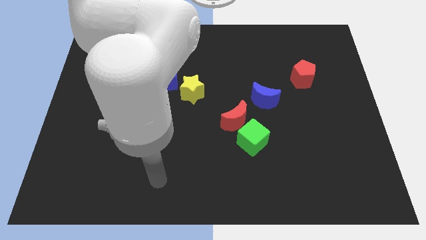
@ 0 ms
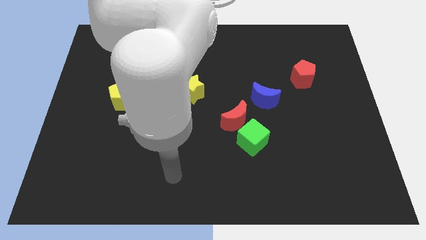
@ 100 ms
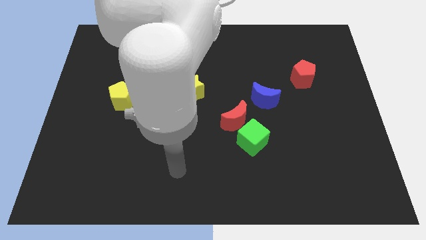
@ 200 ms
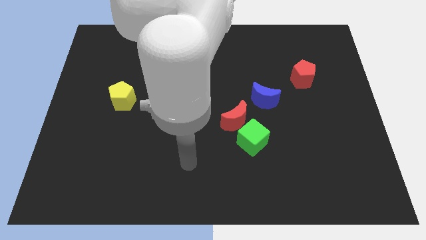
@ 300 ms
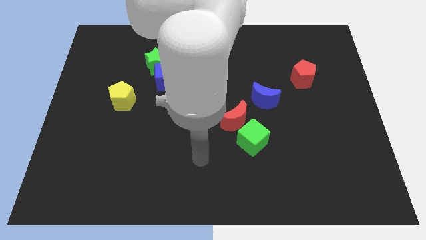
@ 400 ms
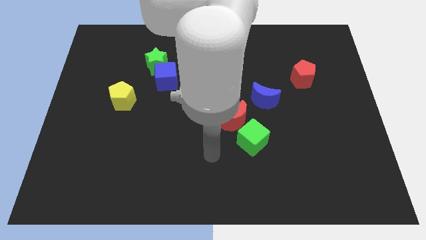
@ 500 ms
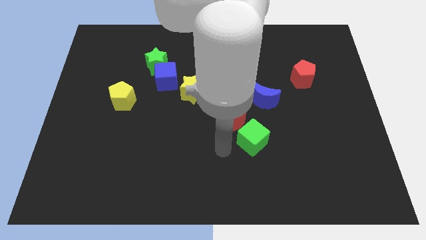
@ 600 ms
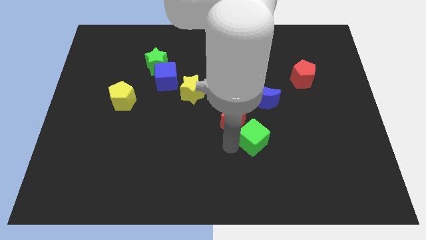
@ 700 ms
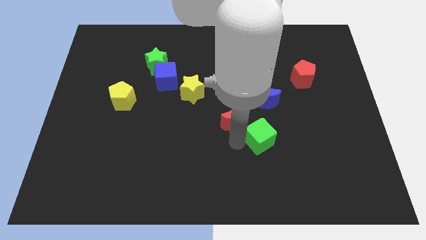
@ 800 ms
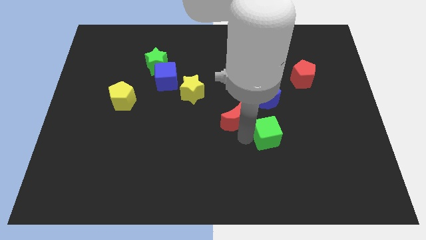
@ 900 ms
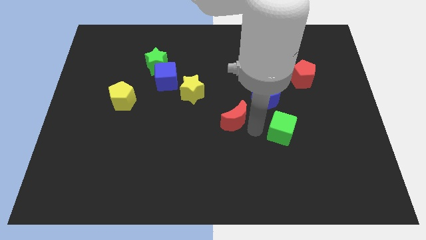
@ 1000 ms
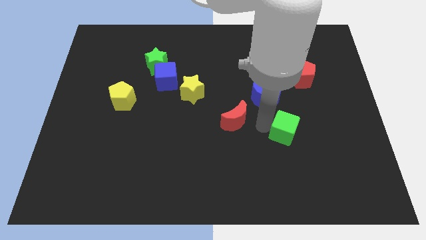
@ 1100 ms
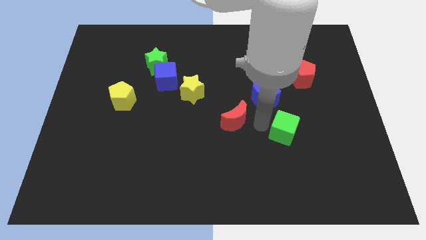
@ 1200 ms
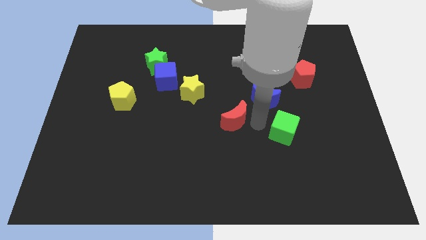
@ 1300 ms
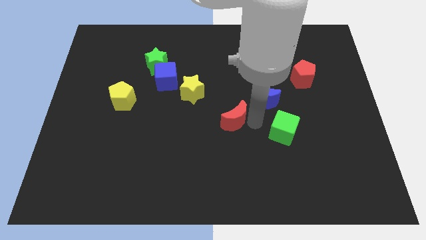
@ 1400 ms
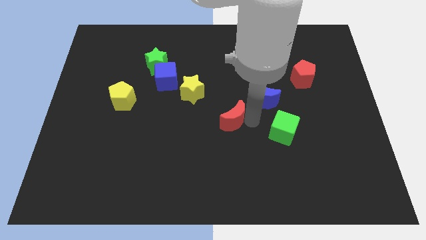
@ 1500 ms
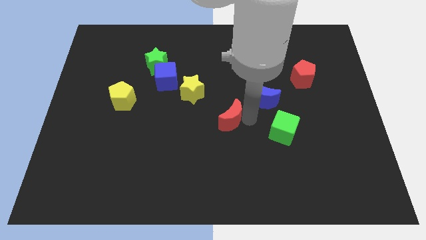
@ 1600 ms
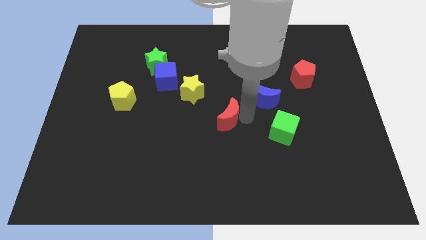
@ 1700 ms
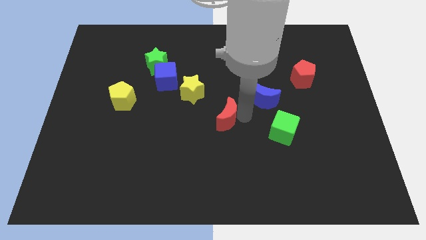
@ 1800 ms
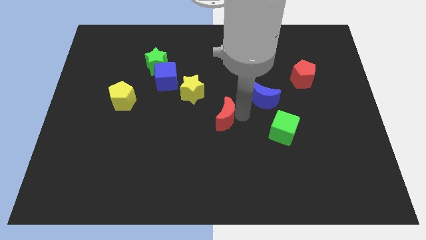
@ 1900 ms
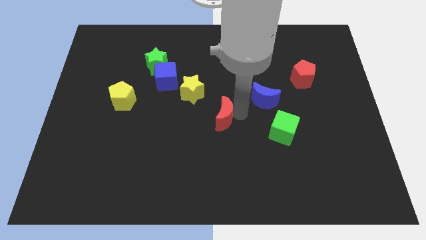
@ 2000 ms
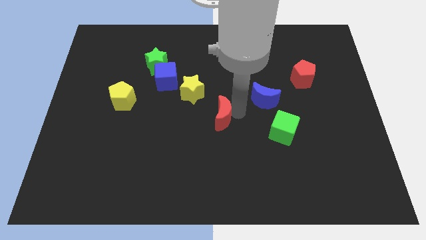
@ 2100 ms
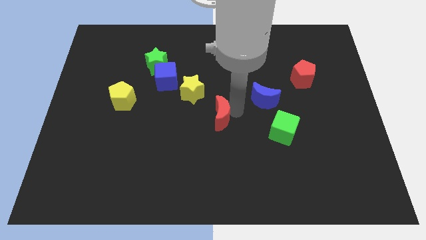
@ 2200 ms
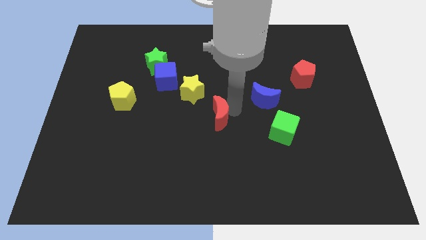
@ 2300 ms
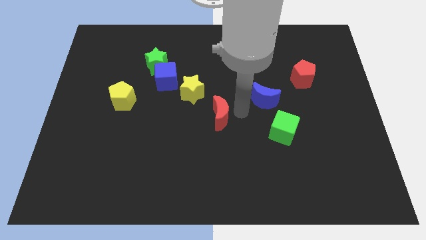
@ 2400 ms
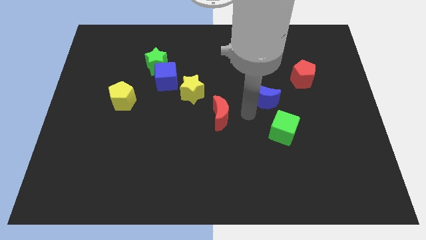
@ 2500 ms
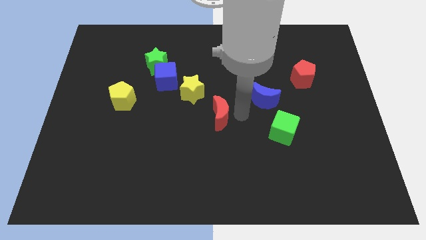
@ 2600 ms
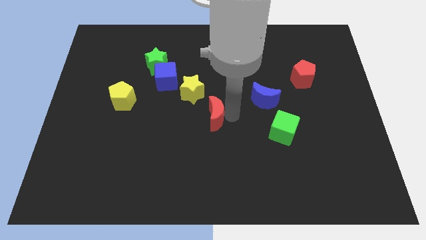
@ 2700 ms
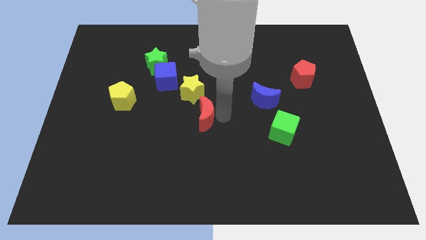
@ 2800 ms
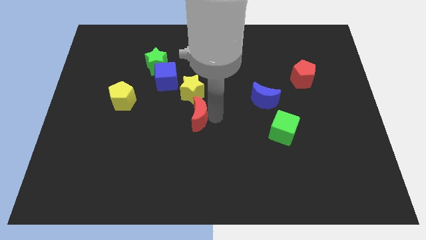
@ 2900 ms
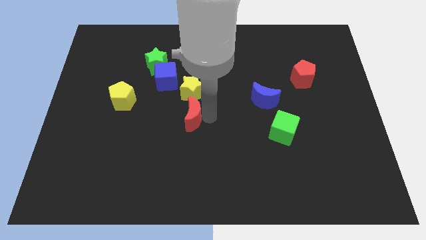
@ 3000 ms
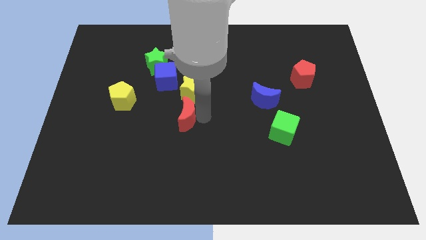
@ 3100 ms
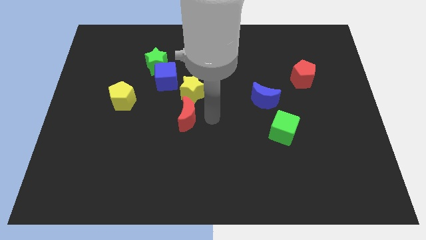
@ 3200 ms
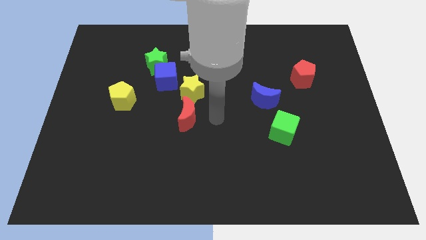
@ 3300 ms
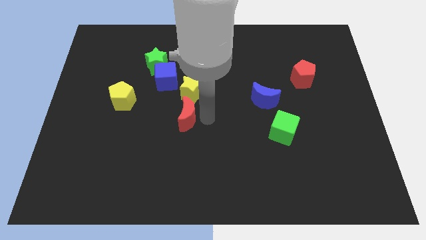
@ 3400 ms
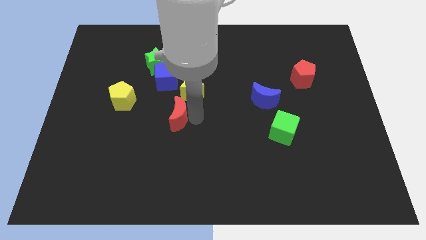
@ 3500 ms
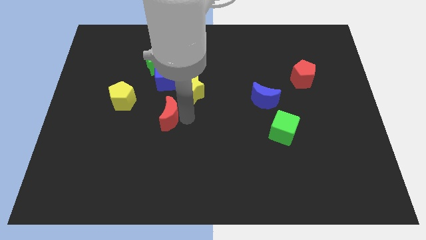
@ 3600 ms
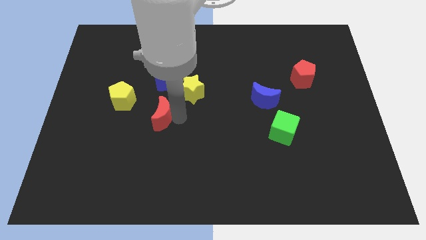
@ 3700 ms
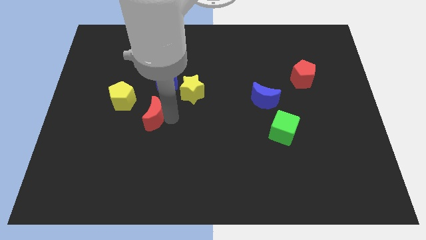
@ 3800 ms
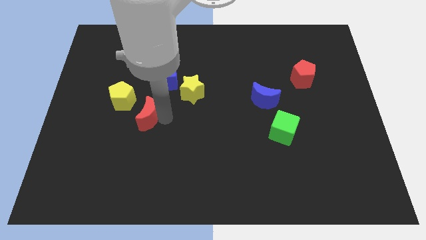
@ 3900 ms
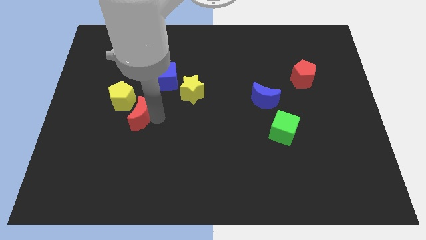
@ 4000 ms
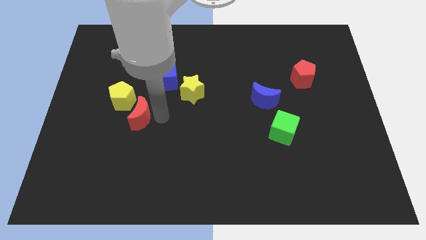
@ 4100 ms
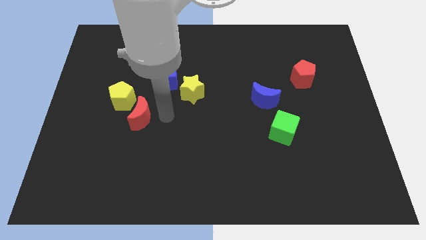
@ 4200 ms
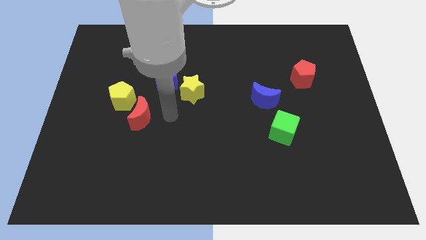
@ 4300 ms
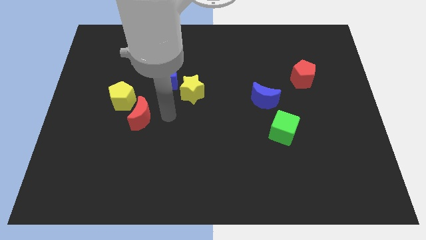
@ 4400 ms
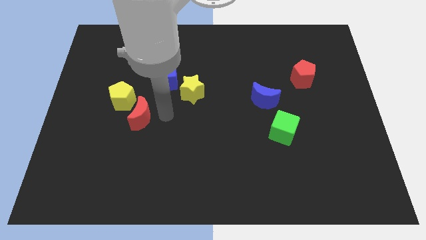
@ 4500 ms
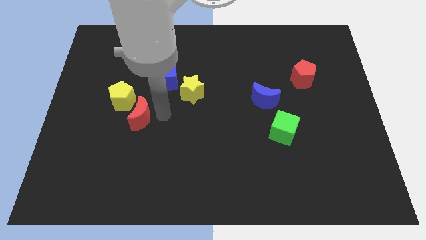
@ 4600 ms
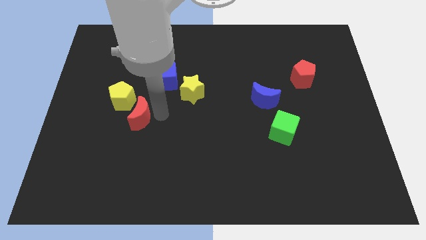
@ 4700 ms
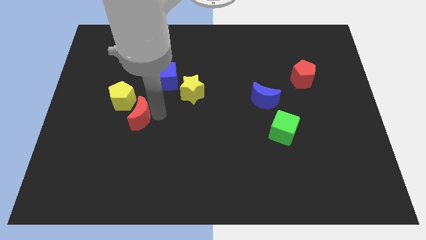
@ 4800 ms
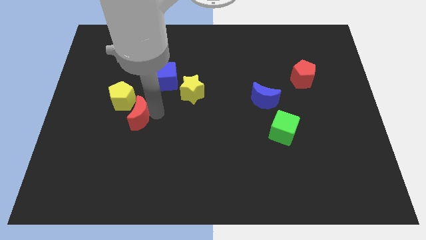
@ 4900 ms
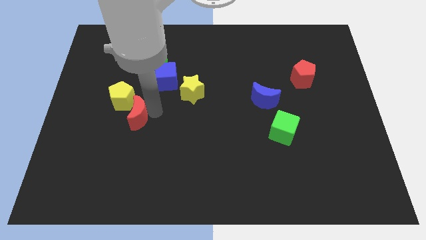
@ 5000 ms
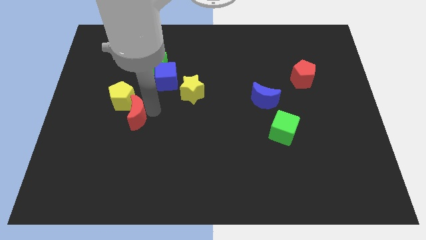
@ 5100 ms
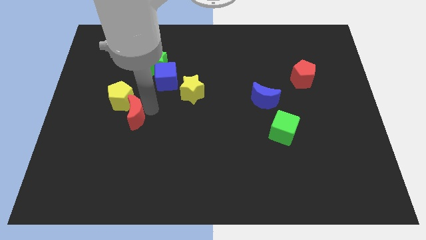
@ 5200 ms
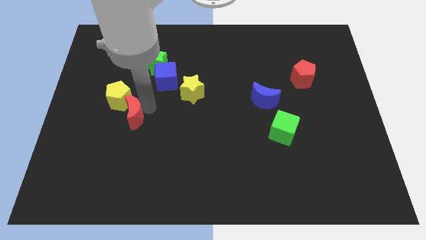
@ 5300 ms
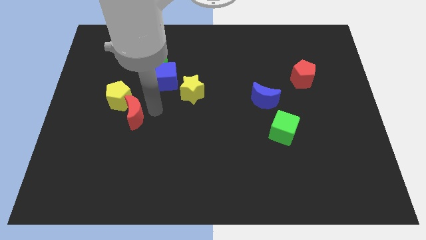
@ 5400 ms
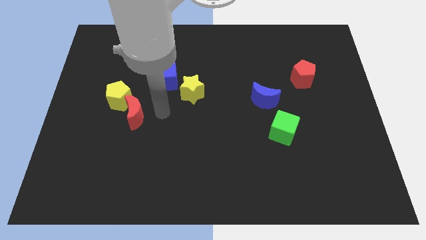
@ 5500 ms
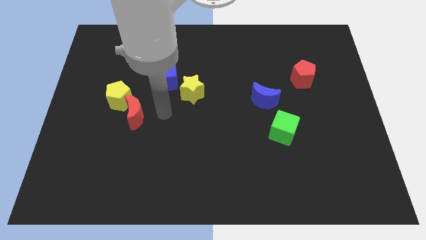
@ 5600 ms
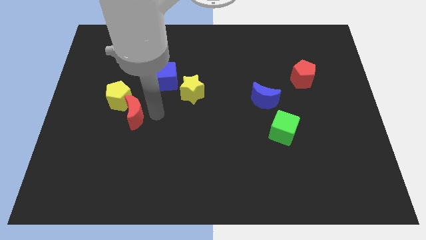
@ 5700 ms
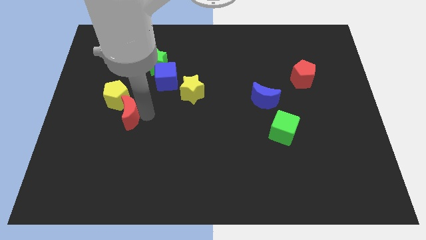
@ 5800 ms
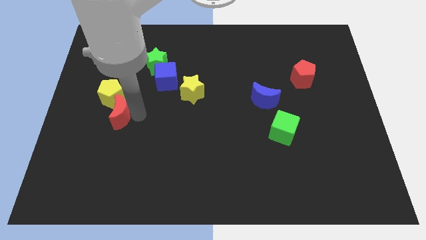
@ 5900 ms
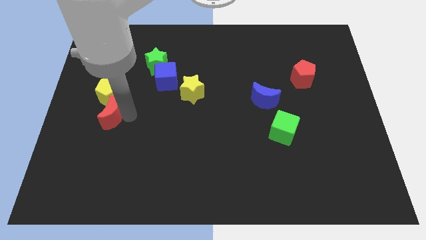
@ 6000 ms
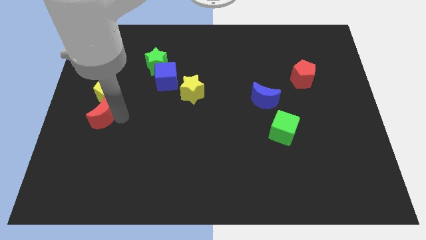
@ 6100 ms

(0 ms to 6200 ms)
push the red moon diagonally down and to the left of the yellow pentagon
